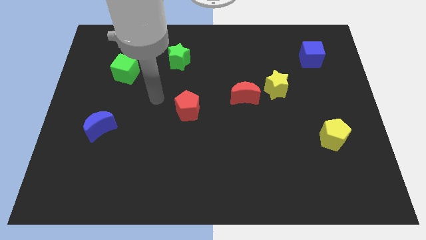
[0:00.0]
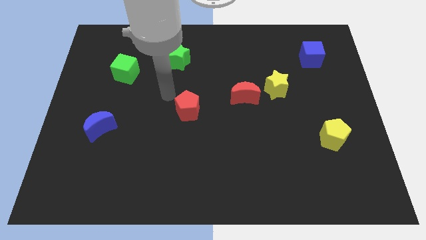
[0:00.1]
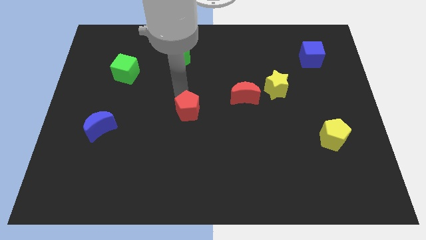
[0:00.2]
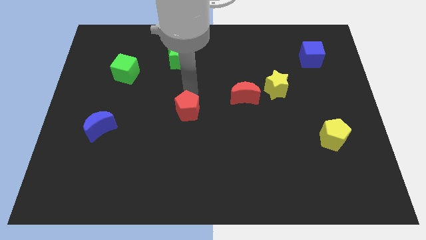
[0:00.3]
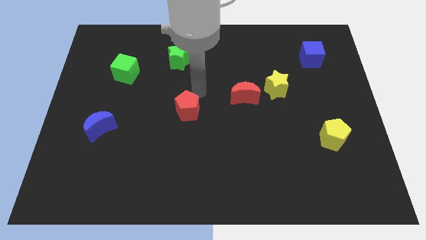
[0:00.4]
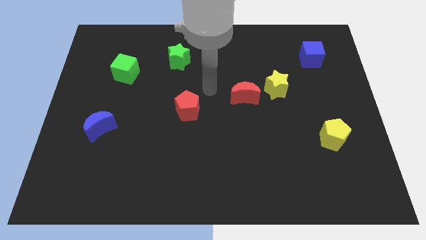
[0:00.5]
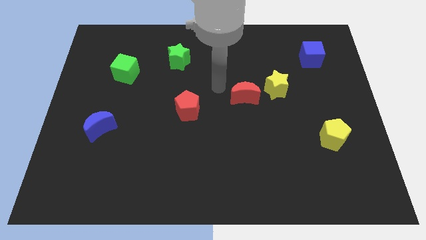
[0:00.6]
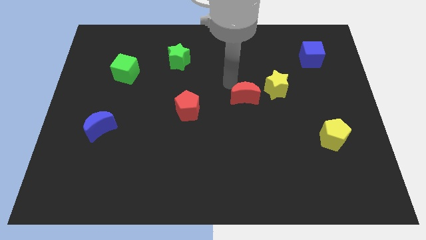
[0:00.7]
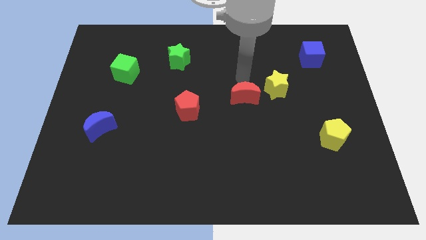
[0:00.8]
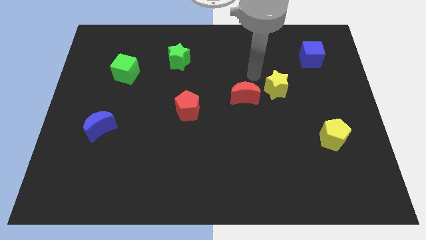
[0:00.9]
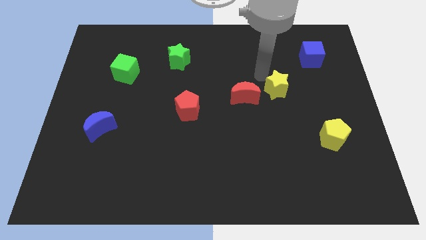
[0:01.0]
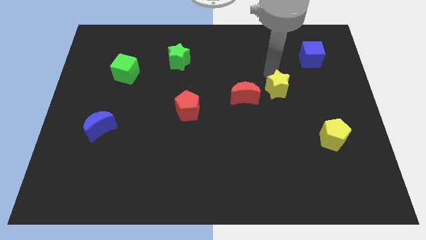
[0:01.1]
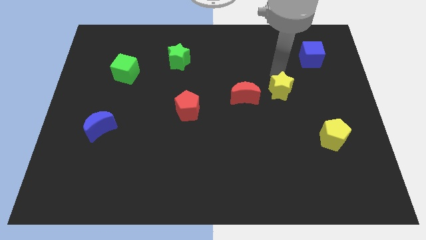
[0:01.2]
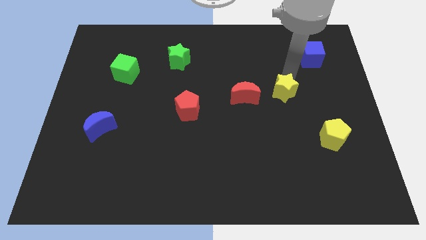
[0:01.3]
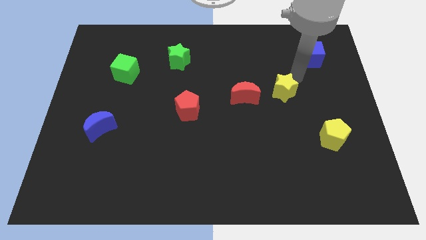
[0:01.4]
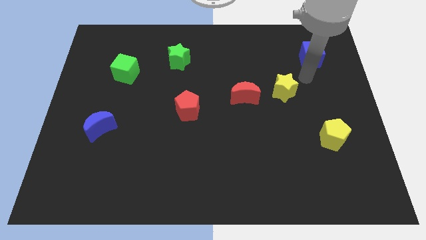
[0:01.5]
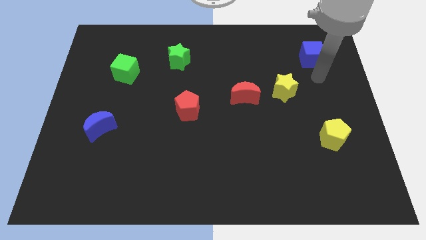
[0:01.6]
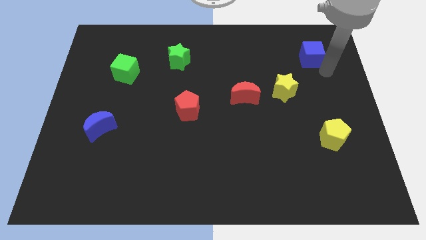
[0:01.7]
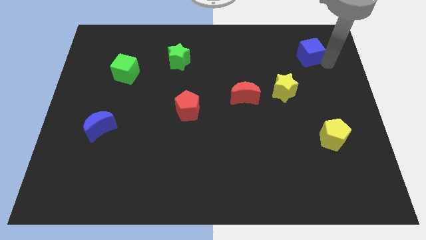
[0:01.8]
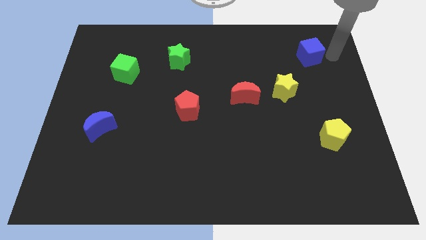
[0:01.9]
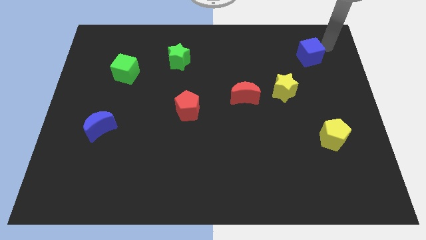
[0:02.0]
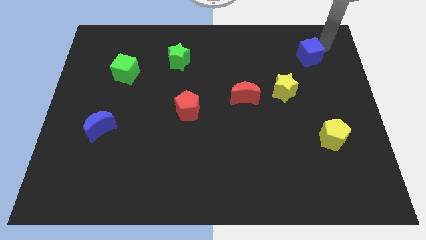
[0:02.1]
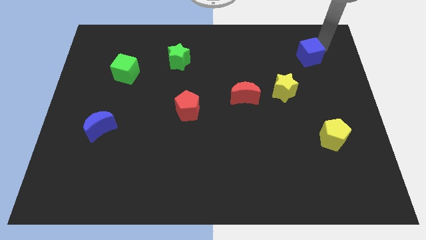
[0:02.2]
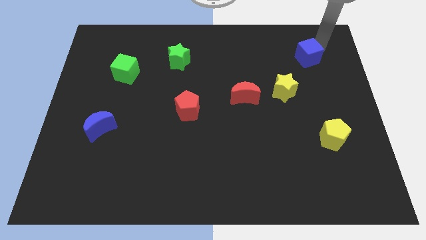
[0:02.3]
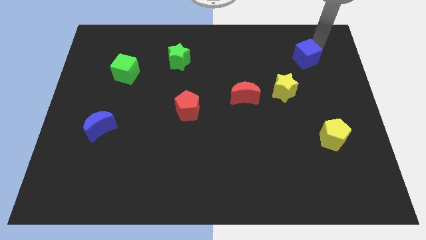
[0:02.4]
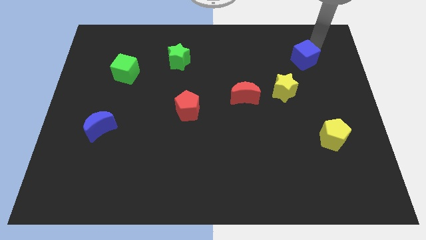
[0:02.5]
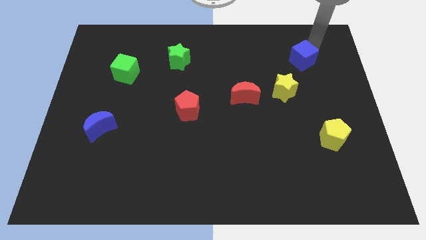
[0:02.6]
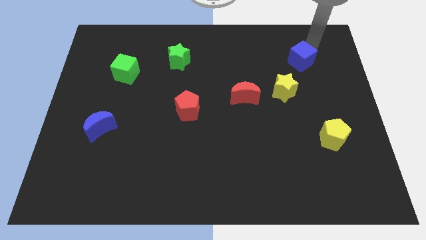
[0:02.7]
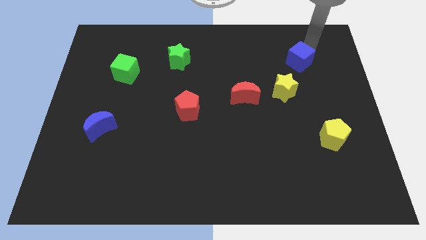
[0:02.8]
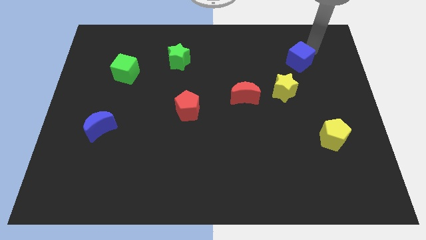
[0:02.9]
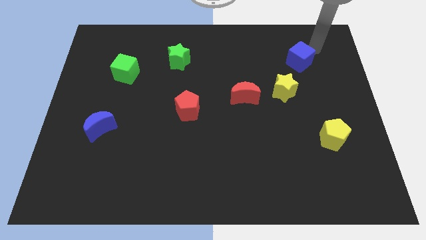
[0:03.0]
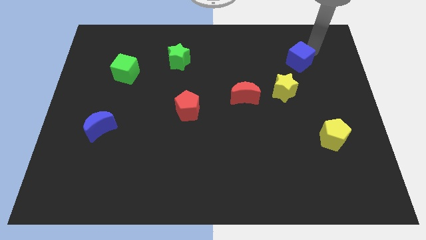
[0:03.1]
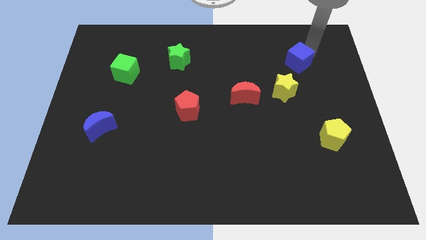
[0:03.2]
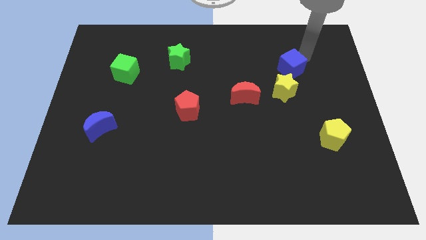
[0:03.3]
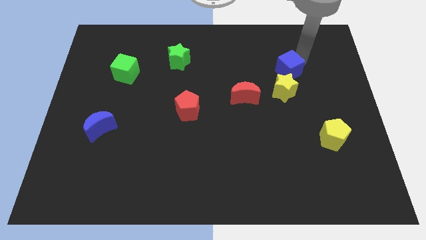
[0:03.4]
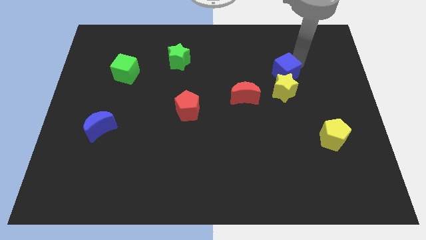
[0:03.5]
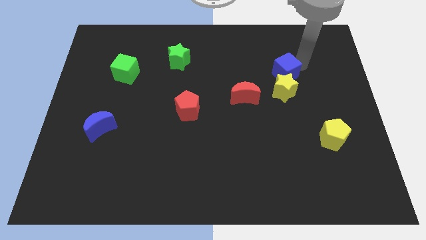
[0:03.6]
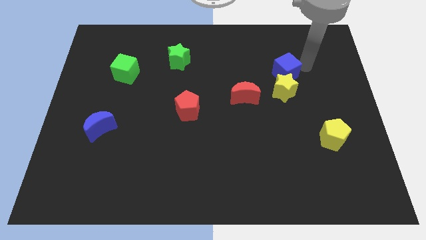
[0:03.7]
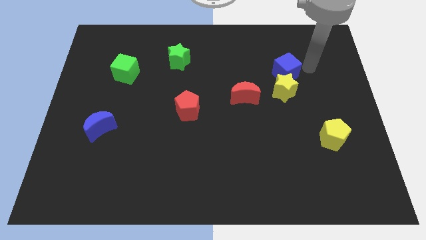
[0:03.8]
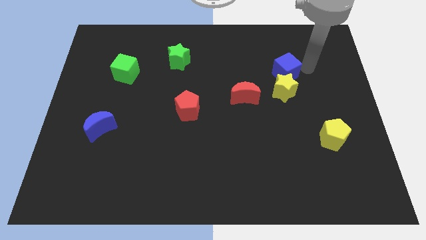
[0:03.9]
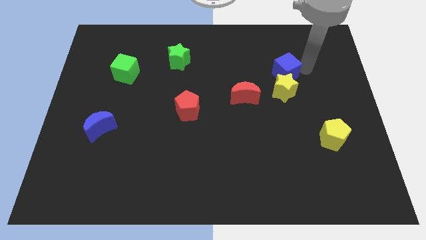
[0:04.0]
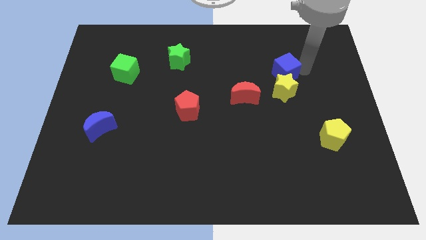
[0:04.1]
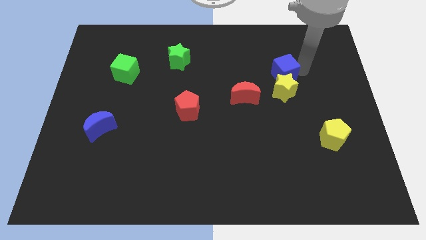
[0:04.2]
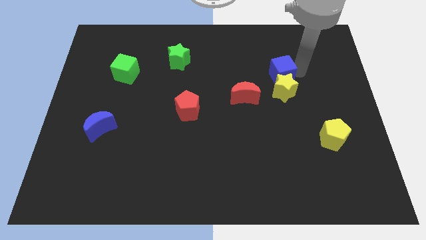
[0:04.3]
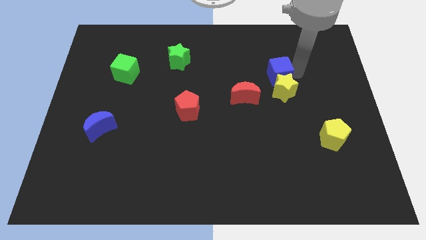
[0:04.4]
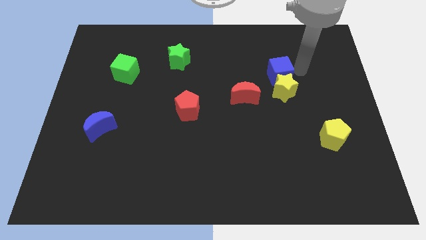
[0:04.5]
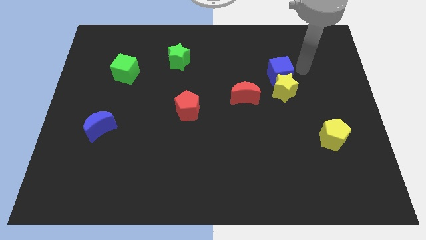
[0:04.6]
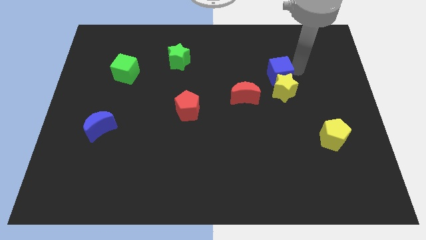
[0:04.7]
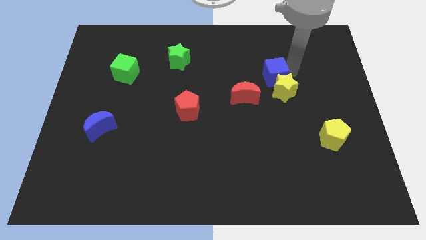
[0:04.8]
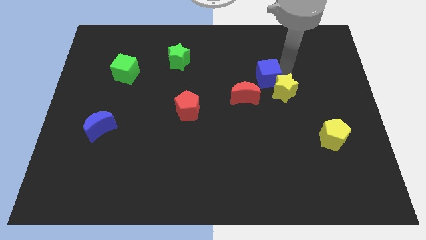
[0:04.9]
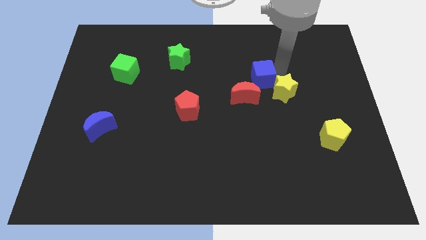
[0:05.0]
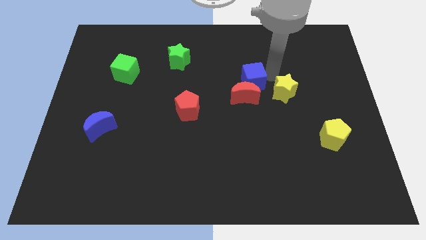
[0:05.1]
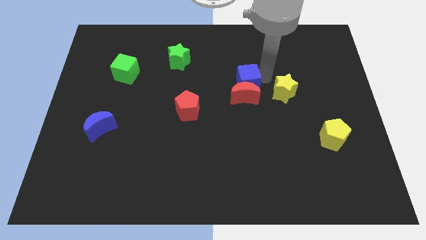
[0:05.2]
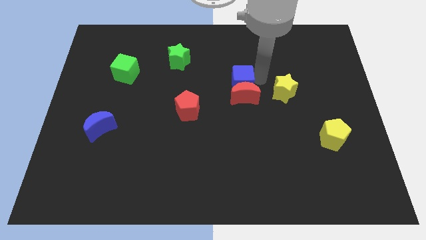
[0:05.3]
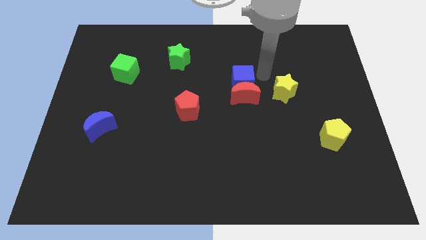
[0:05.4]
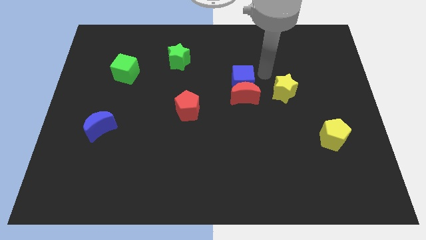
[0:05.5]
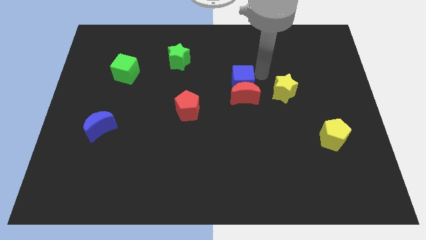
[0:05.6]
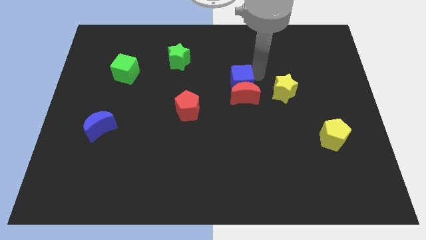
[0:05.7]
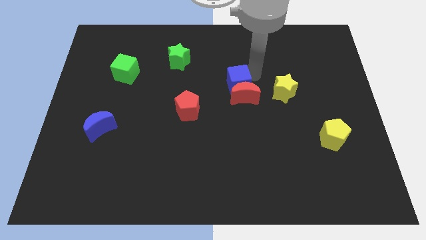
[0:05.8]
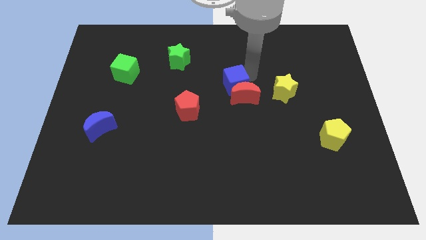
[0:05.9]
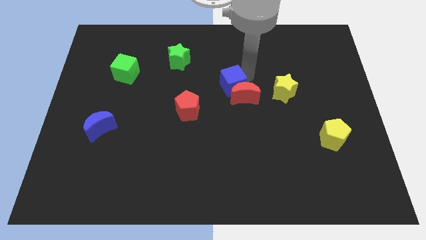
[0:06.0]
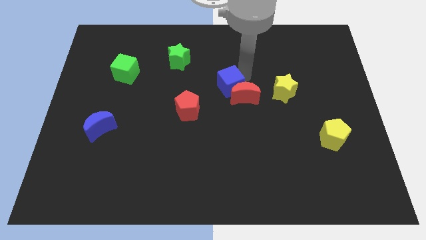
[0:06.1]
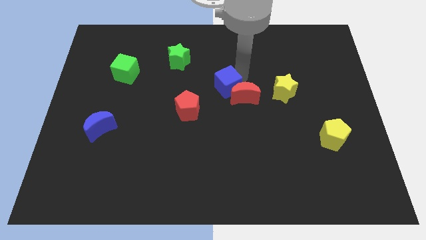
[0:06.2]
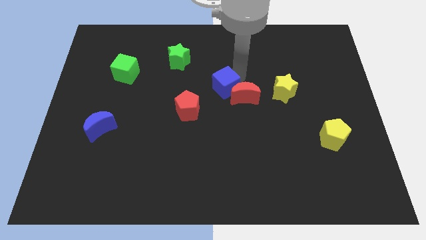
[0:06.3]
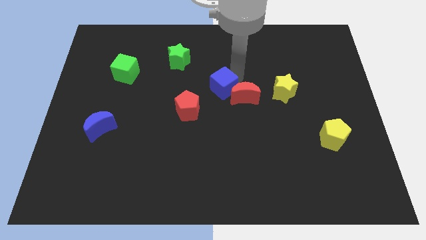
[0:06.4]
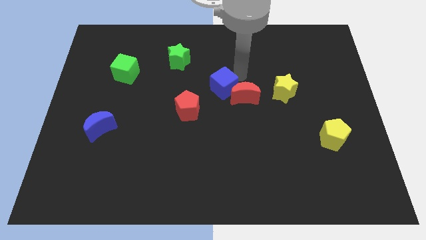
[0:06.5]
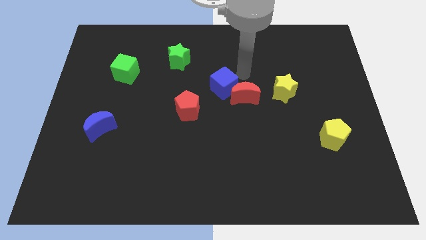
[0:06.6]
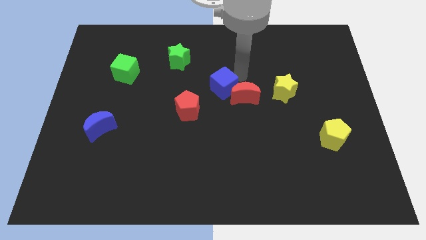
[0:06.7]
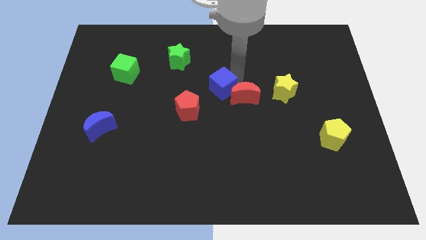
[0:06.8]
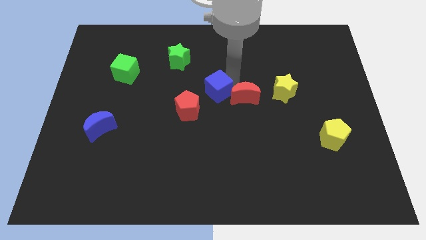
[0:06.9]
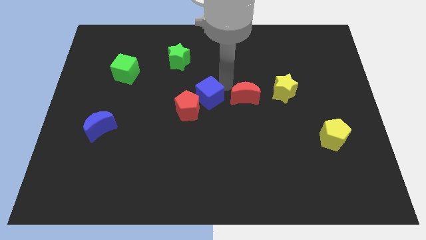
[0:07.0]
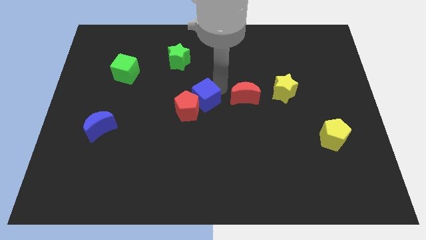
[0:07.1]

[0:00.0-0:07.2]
move the blue cube towards the red pentagon
